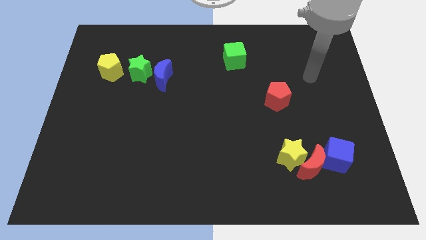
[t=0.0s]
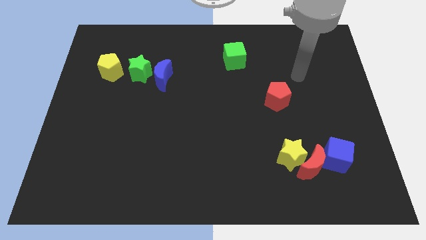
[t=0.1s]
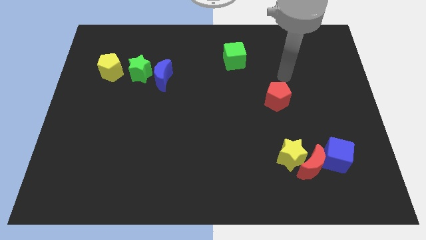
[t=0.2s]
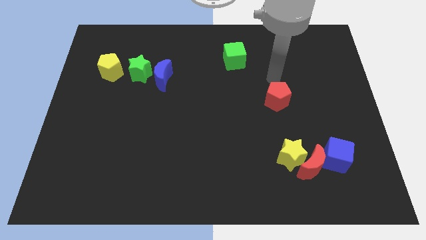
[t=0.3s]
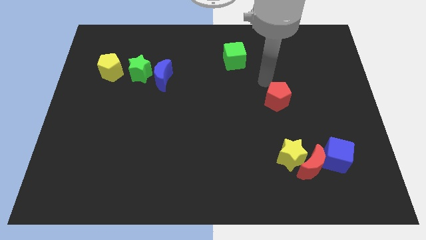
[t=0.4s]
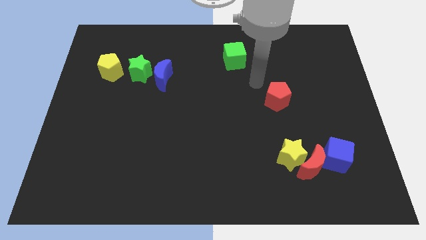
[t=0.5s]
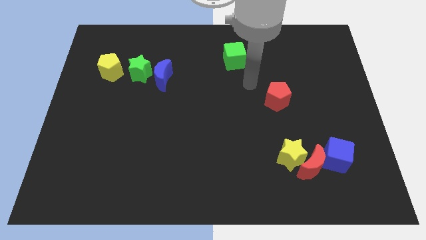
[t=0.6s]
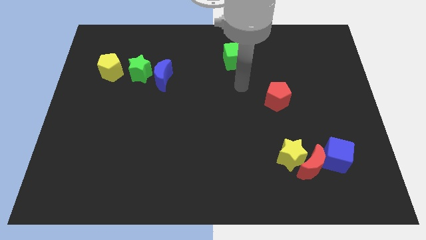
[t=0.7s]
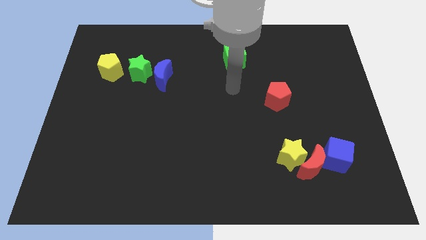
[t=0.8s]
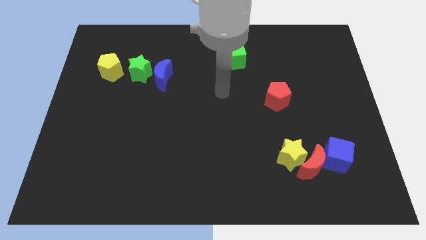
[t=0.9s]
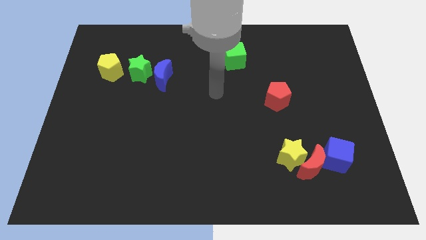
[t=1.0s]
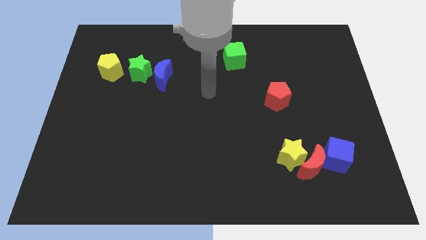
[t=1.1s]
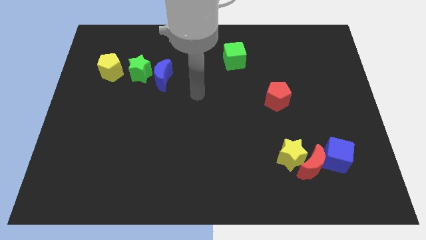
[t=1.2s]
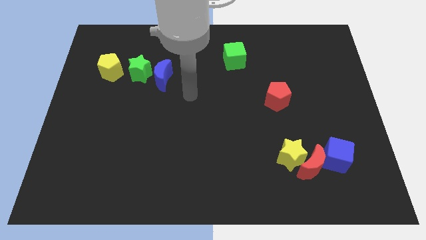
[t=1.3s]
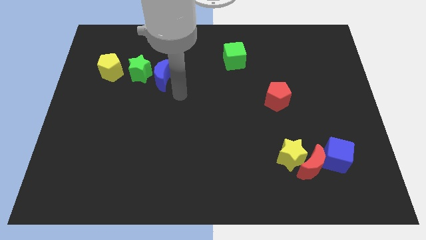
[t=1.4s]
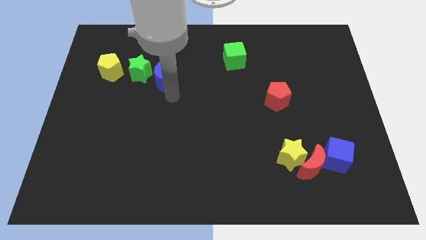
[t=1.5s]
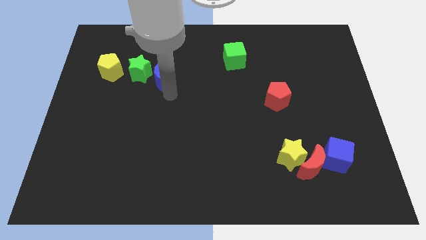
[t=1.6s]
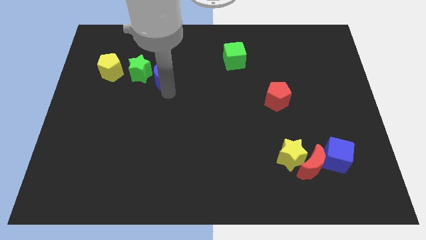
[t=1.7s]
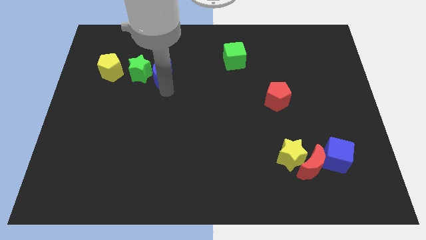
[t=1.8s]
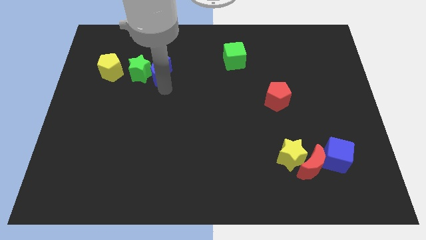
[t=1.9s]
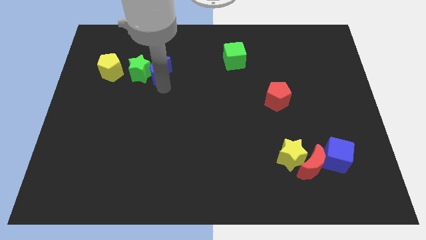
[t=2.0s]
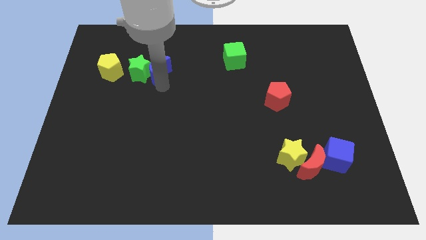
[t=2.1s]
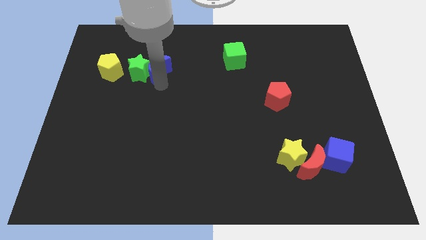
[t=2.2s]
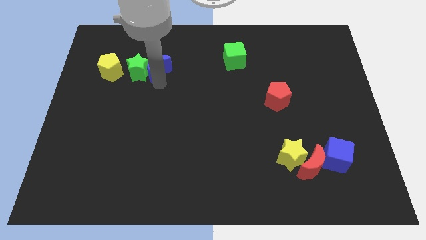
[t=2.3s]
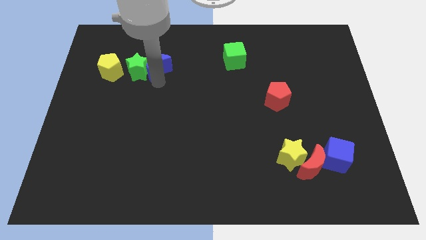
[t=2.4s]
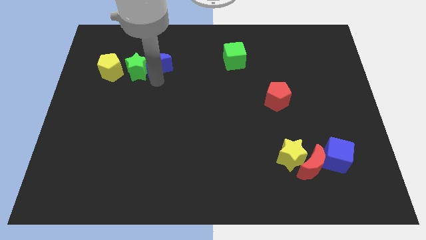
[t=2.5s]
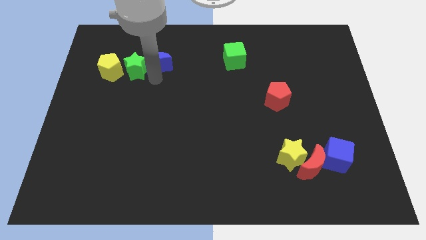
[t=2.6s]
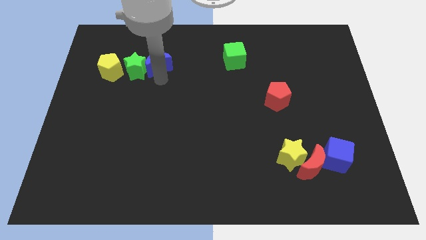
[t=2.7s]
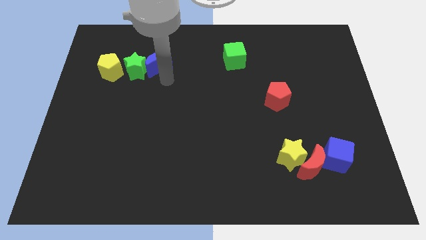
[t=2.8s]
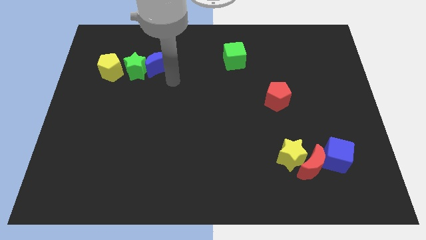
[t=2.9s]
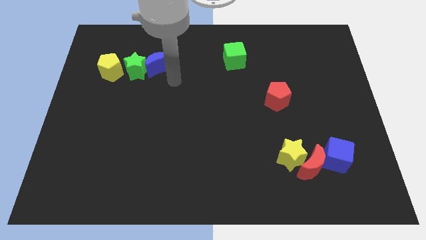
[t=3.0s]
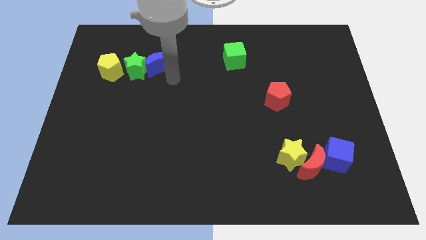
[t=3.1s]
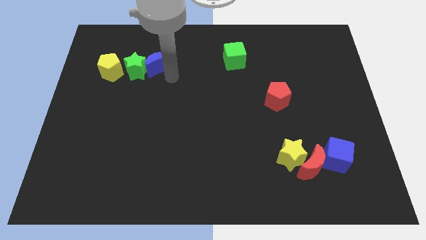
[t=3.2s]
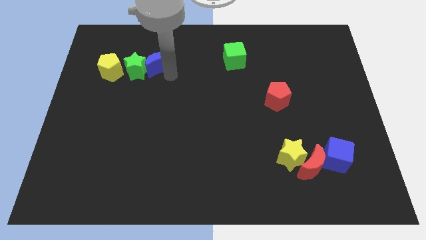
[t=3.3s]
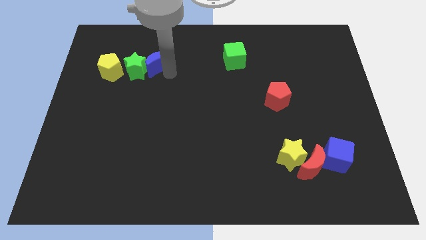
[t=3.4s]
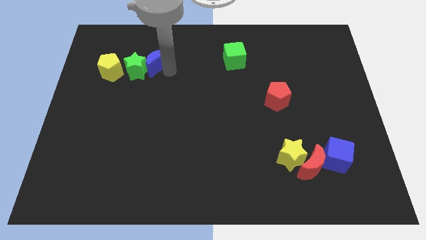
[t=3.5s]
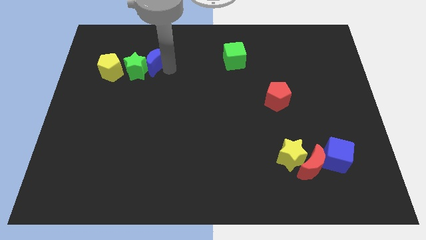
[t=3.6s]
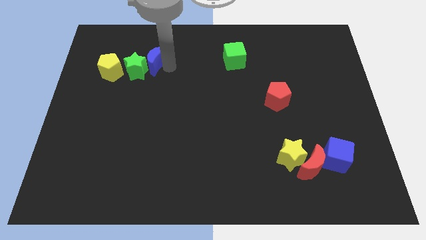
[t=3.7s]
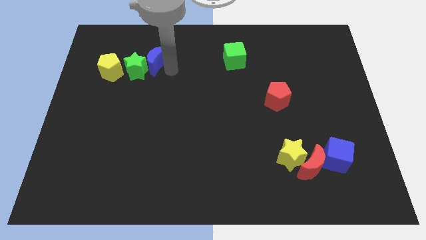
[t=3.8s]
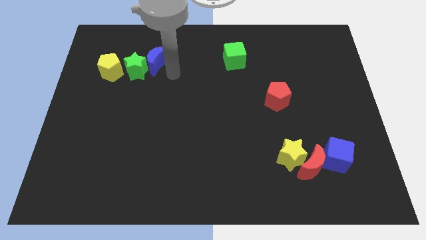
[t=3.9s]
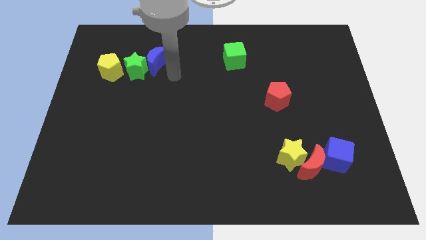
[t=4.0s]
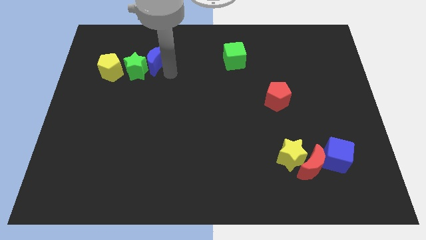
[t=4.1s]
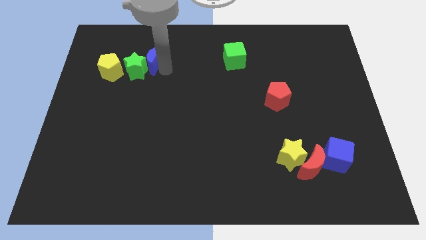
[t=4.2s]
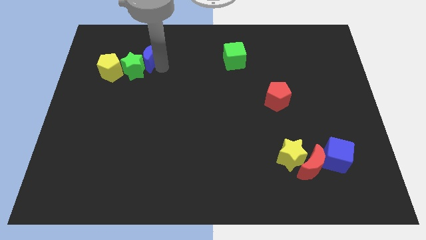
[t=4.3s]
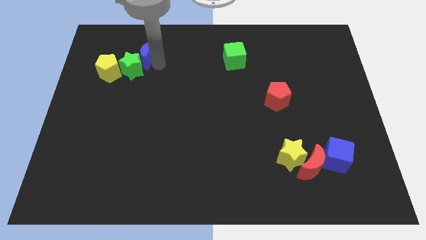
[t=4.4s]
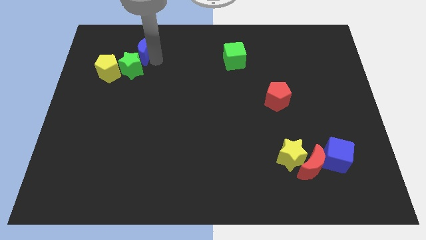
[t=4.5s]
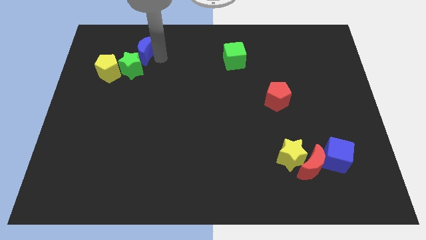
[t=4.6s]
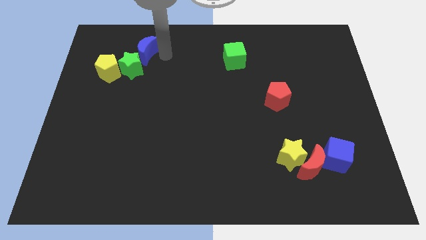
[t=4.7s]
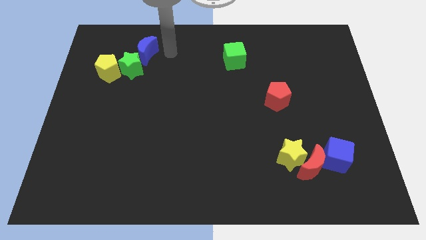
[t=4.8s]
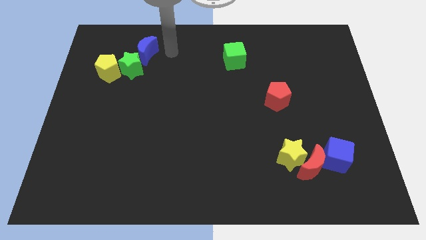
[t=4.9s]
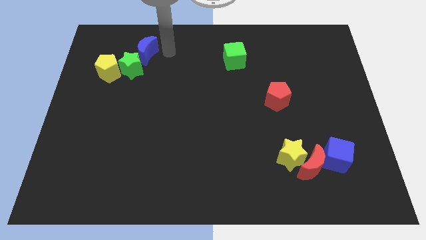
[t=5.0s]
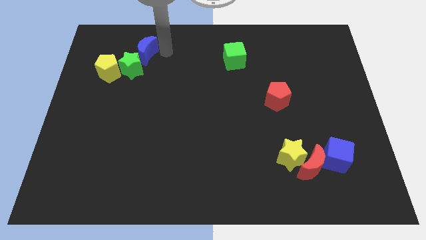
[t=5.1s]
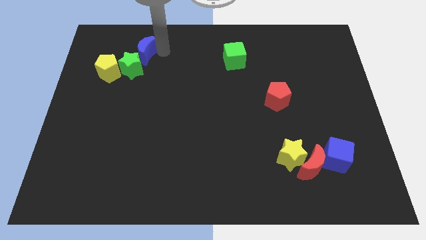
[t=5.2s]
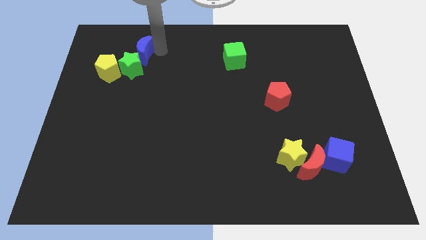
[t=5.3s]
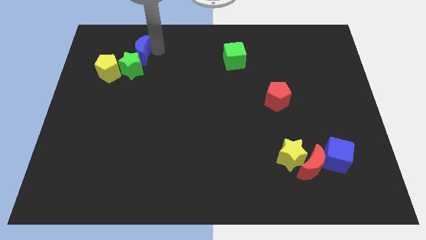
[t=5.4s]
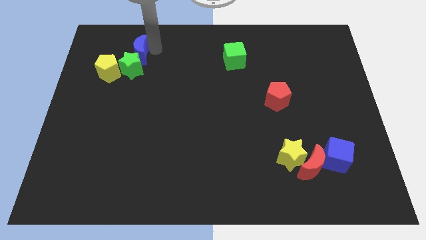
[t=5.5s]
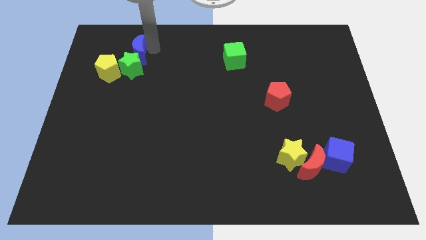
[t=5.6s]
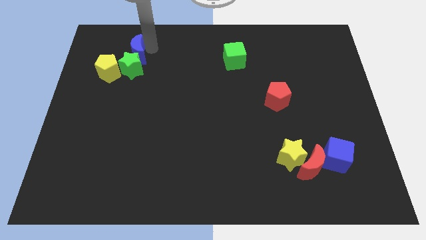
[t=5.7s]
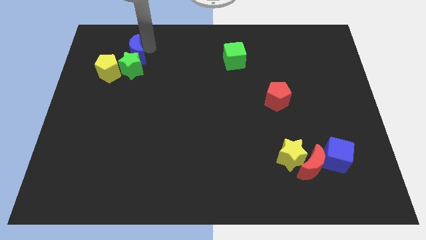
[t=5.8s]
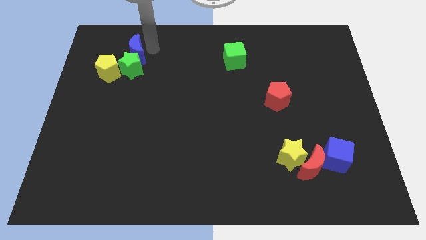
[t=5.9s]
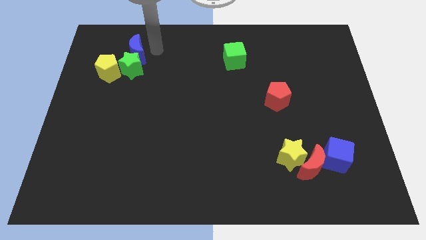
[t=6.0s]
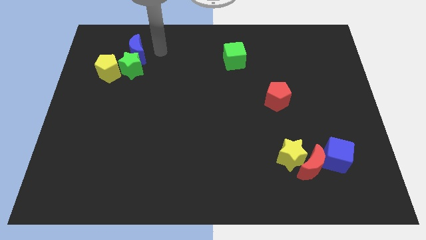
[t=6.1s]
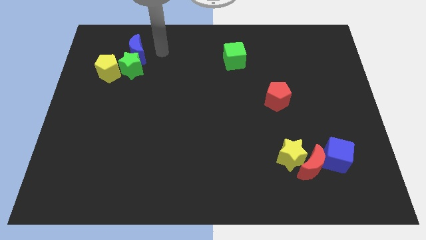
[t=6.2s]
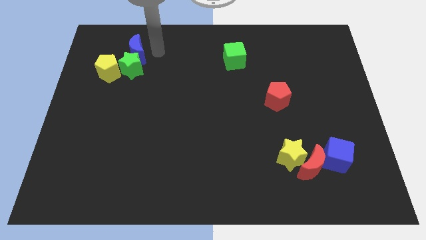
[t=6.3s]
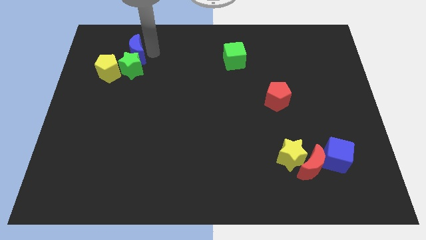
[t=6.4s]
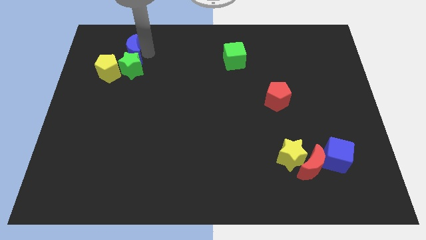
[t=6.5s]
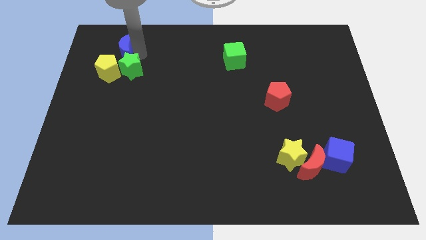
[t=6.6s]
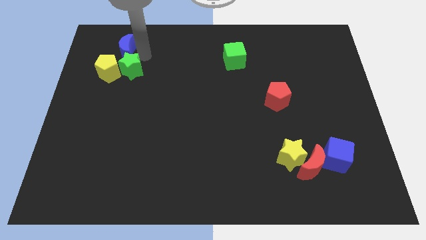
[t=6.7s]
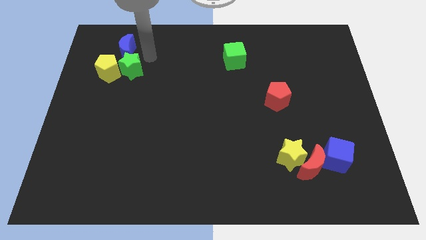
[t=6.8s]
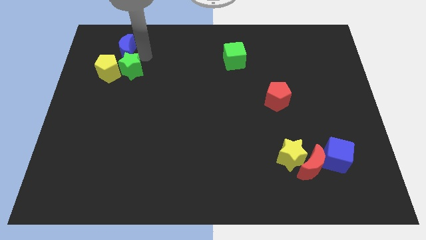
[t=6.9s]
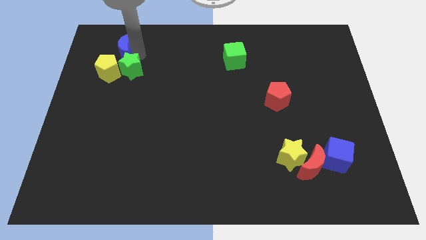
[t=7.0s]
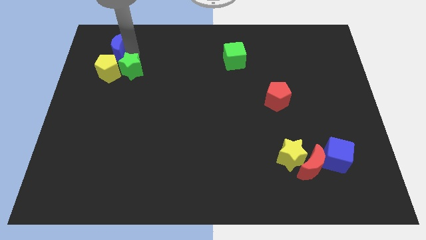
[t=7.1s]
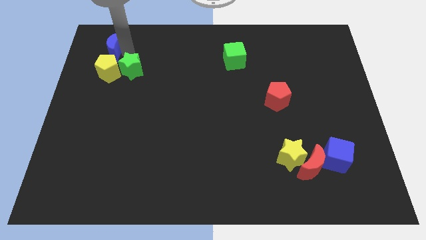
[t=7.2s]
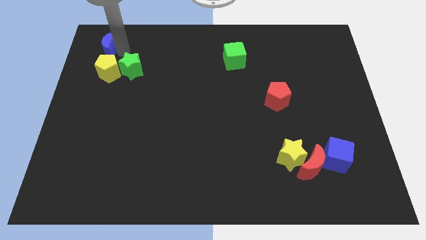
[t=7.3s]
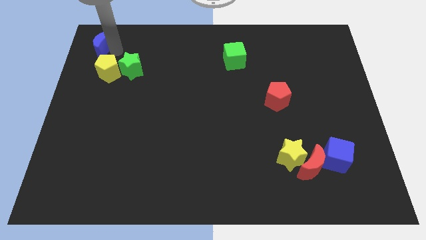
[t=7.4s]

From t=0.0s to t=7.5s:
put the blue moon to the top left corner

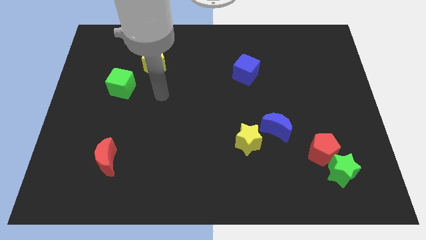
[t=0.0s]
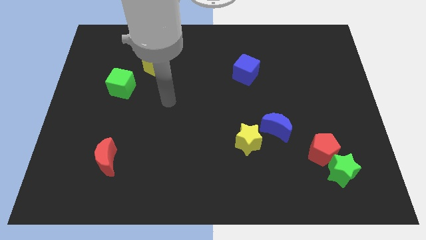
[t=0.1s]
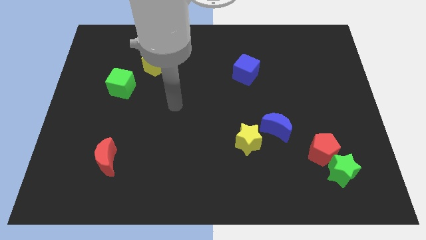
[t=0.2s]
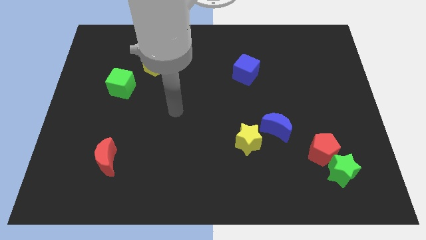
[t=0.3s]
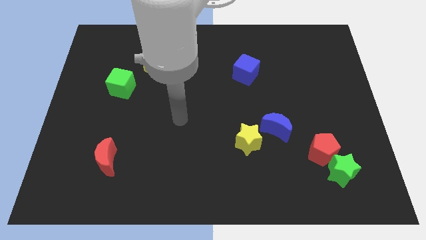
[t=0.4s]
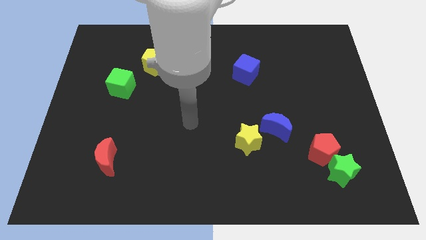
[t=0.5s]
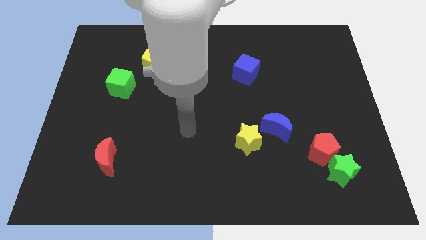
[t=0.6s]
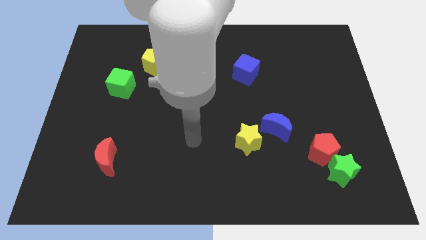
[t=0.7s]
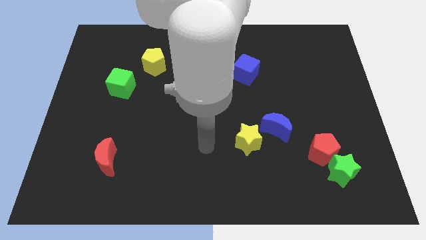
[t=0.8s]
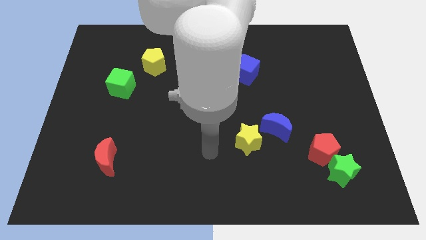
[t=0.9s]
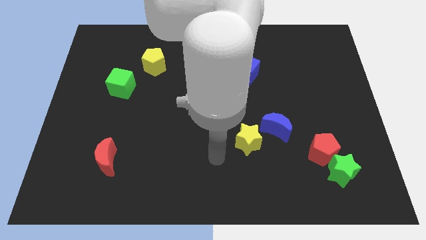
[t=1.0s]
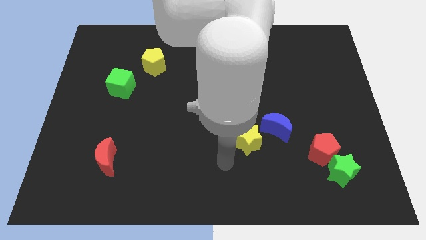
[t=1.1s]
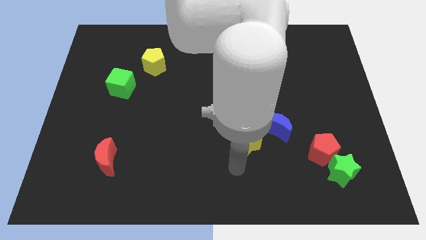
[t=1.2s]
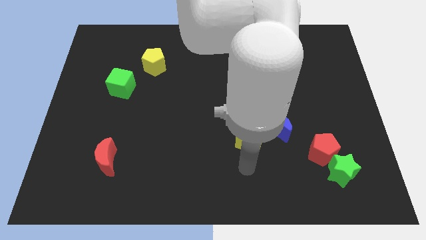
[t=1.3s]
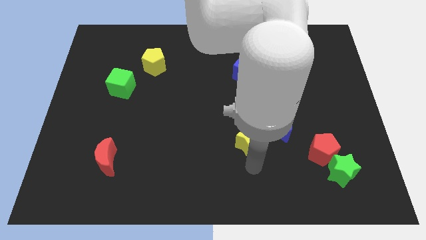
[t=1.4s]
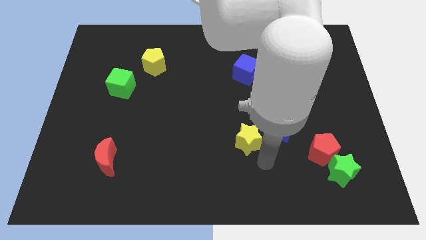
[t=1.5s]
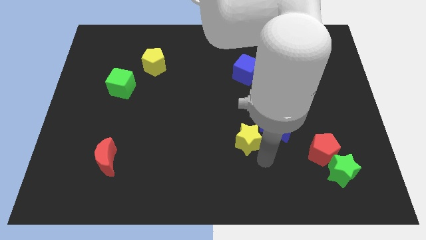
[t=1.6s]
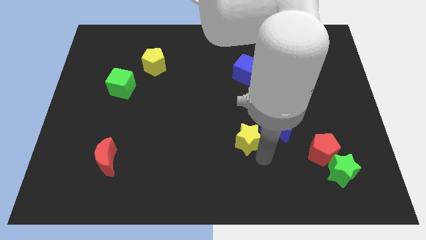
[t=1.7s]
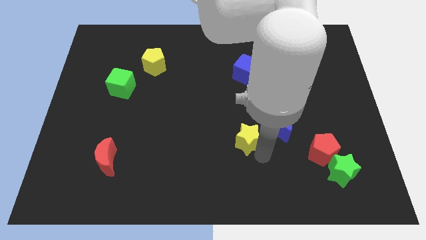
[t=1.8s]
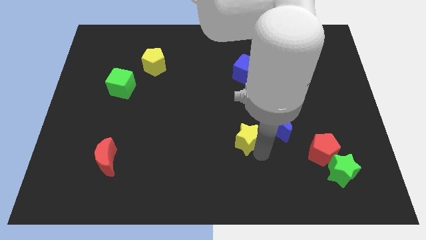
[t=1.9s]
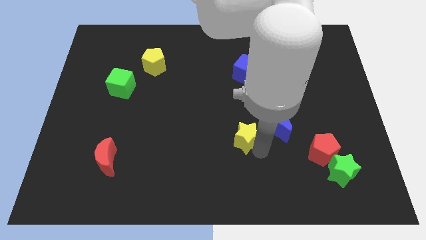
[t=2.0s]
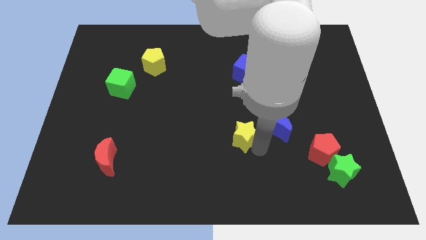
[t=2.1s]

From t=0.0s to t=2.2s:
move the yellow star to the middle
